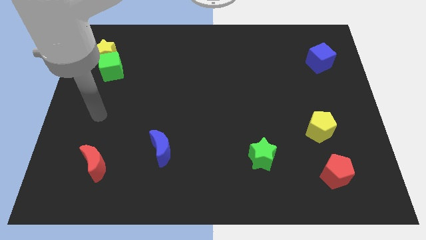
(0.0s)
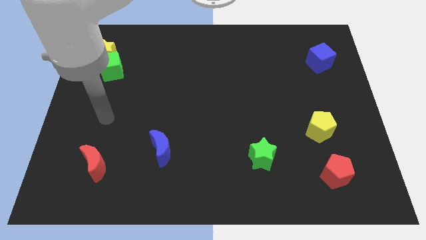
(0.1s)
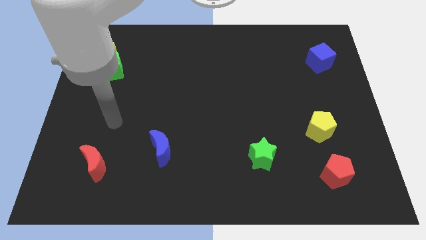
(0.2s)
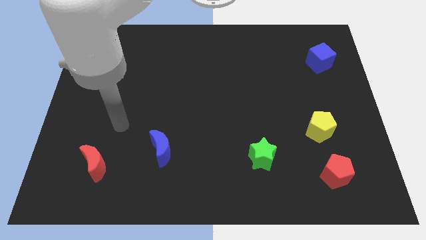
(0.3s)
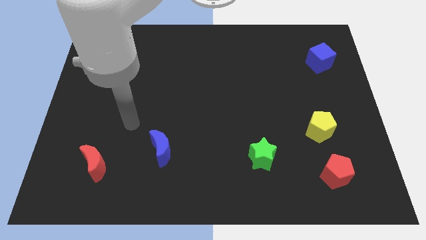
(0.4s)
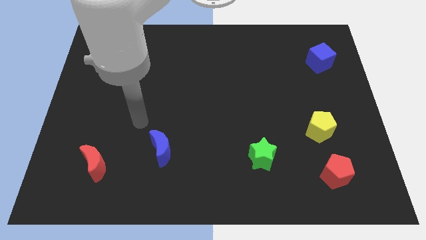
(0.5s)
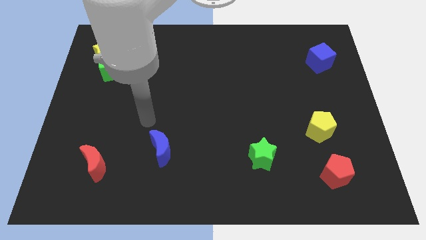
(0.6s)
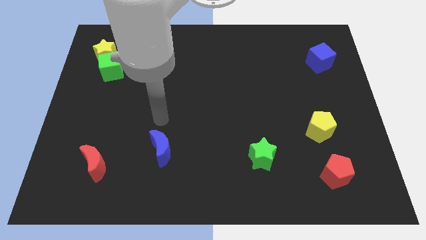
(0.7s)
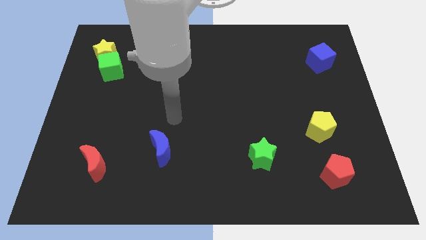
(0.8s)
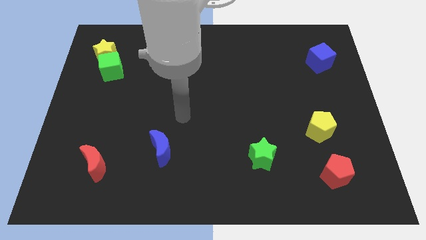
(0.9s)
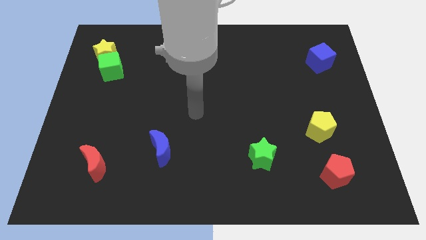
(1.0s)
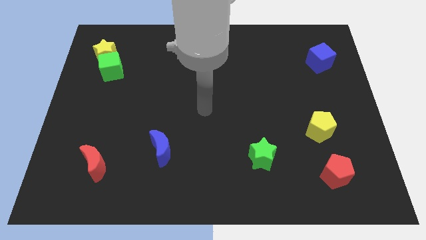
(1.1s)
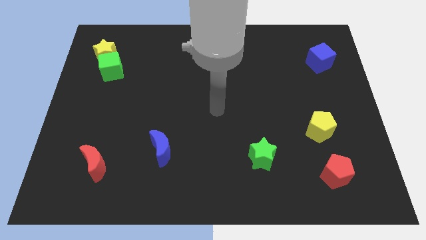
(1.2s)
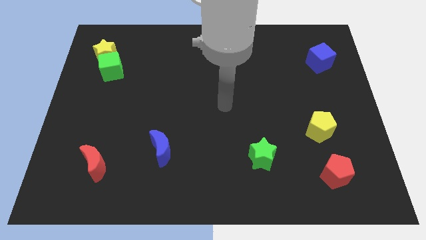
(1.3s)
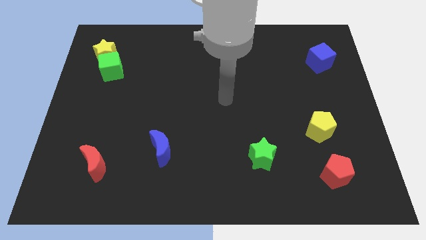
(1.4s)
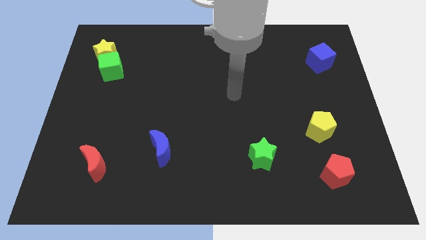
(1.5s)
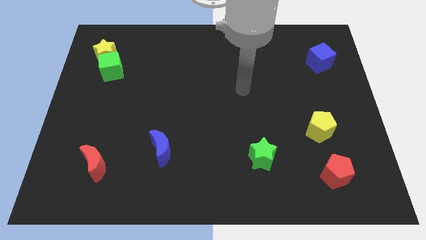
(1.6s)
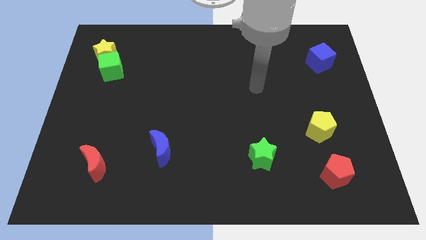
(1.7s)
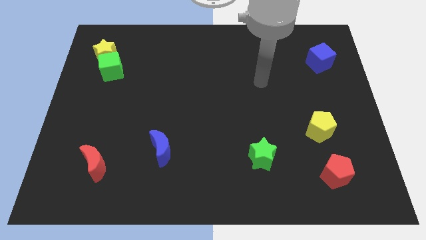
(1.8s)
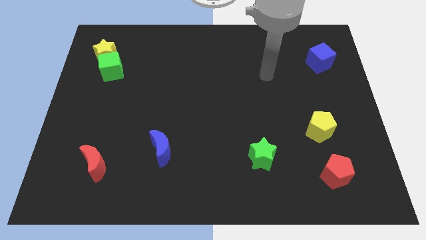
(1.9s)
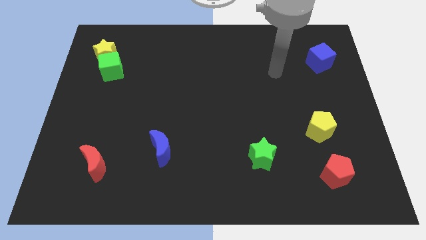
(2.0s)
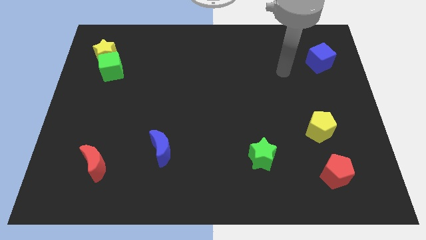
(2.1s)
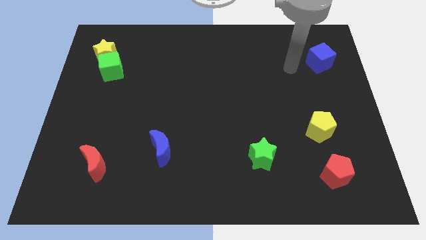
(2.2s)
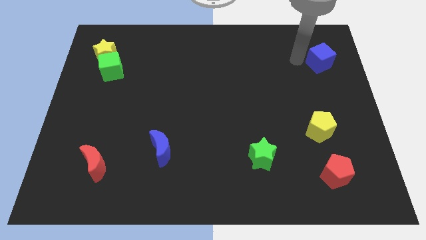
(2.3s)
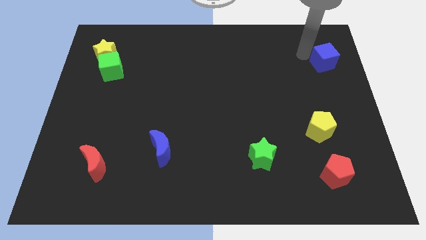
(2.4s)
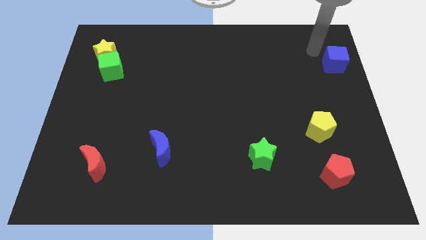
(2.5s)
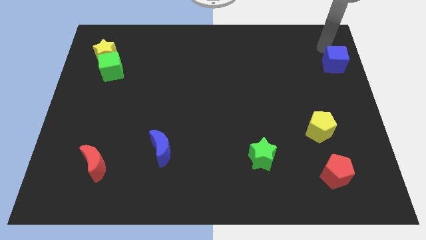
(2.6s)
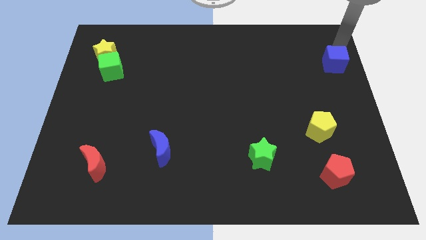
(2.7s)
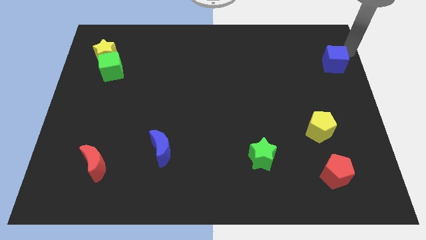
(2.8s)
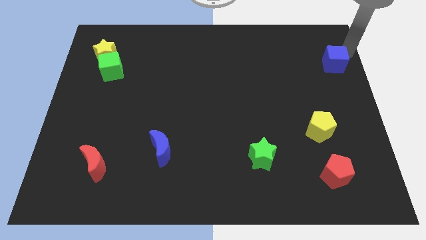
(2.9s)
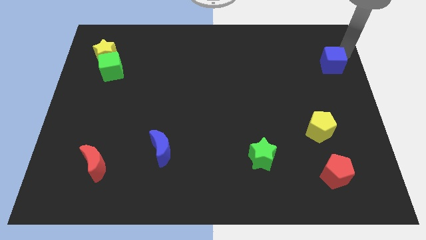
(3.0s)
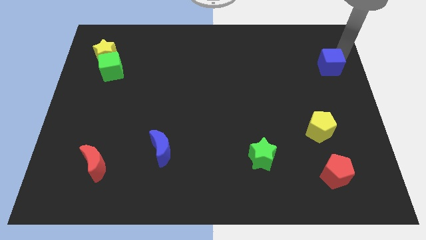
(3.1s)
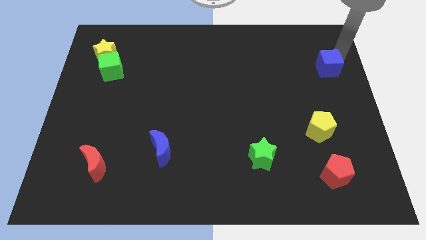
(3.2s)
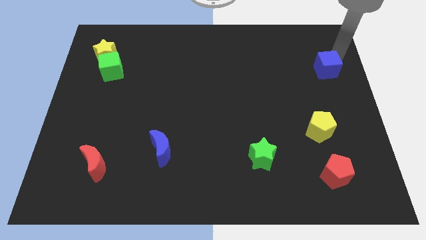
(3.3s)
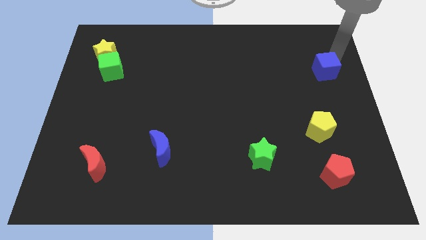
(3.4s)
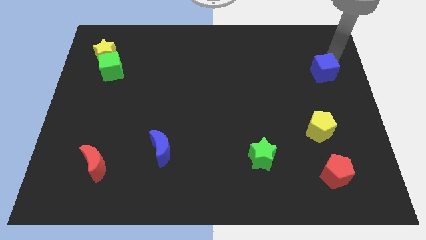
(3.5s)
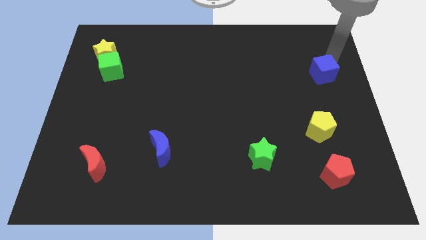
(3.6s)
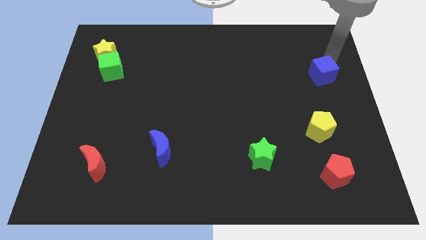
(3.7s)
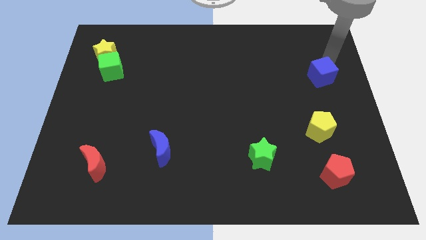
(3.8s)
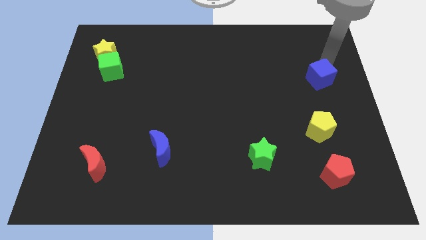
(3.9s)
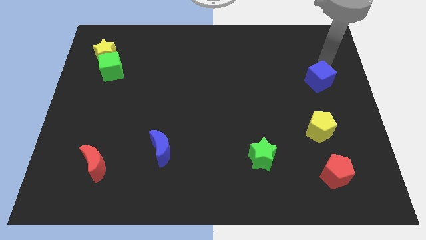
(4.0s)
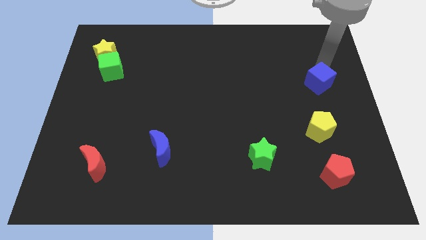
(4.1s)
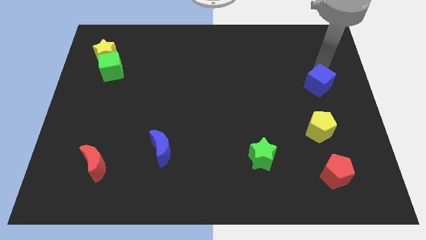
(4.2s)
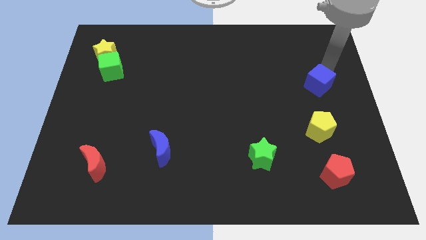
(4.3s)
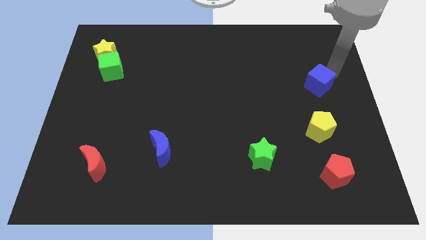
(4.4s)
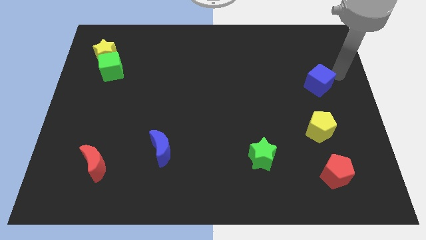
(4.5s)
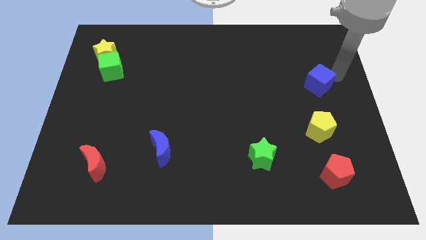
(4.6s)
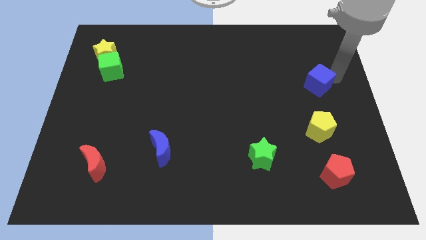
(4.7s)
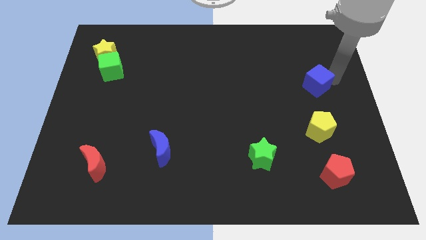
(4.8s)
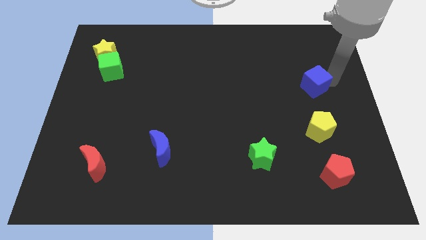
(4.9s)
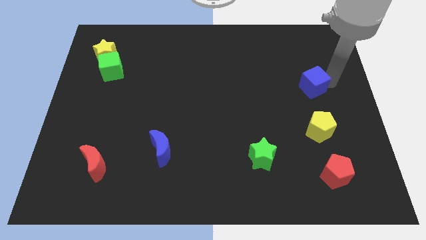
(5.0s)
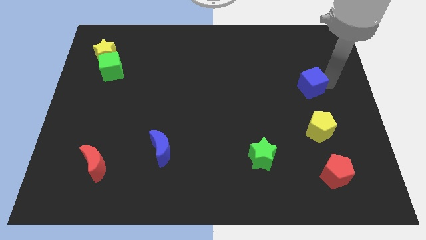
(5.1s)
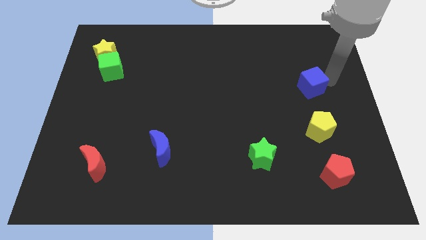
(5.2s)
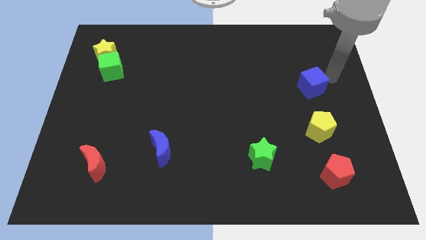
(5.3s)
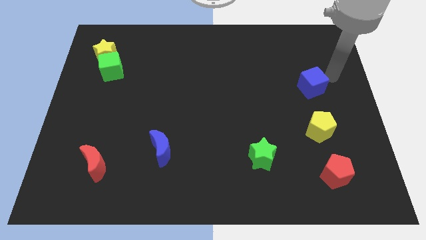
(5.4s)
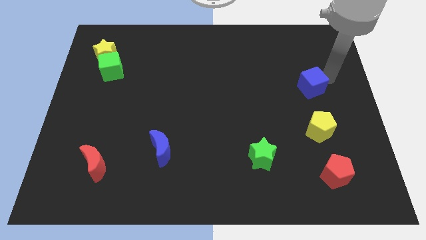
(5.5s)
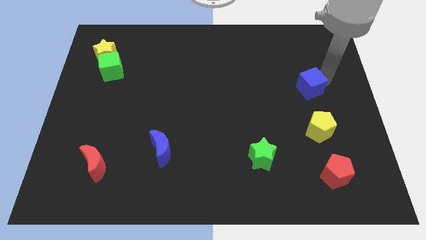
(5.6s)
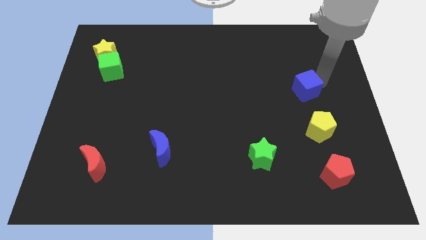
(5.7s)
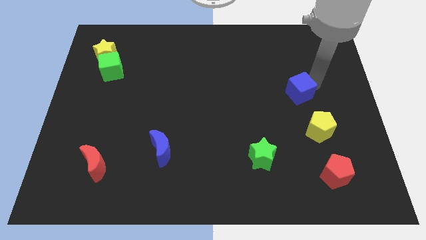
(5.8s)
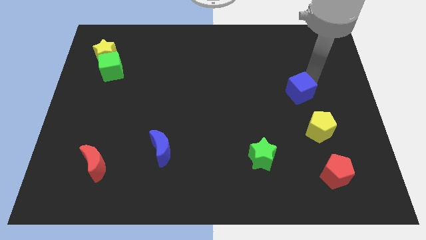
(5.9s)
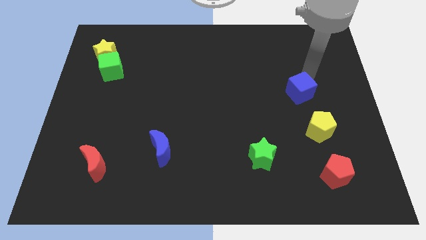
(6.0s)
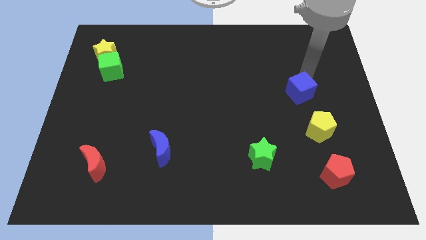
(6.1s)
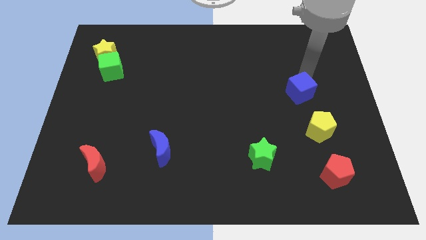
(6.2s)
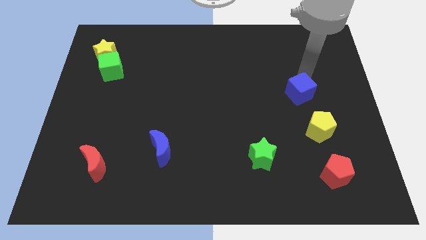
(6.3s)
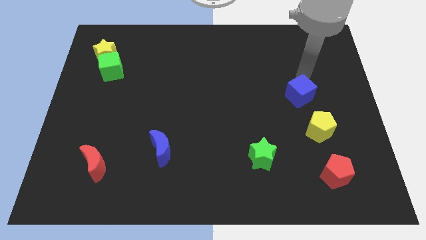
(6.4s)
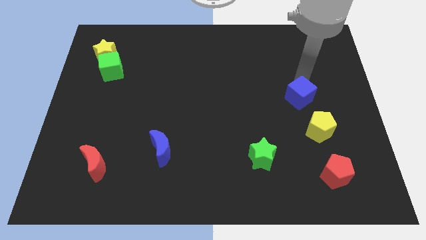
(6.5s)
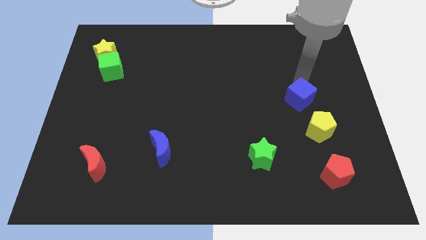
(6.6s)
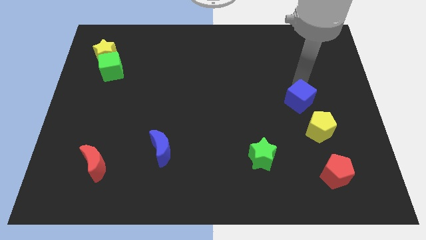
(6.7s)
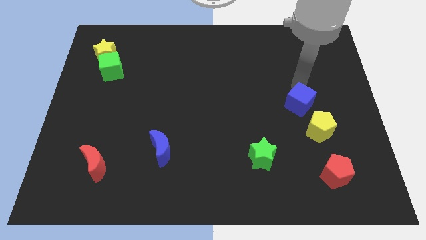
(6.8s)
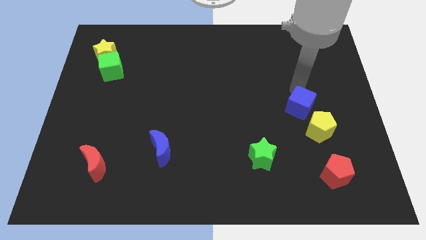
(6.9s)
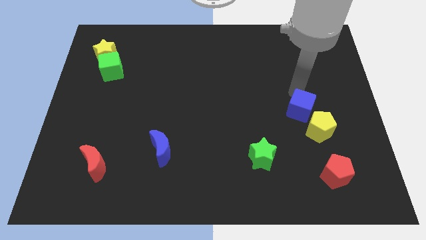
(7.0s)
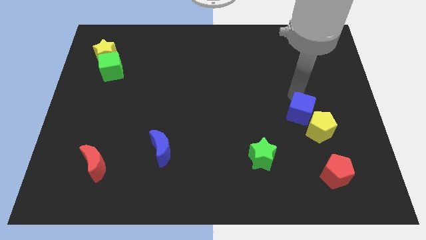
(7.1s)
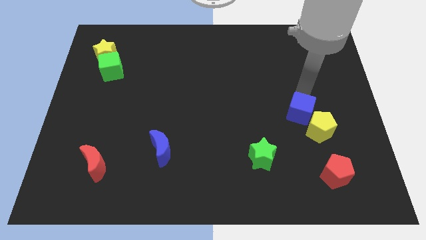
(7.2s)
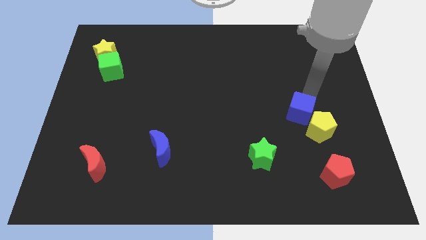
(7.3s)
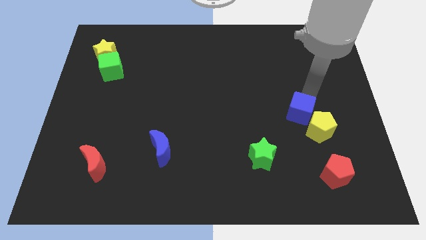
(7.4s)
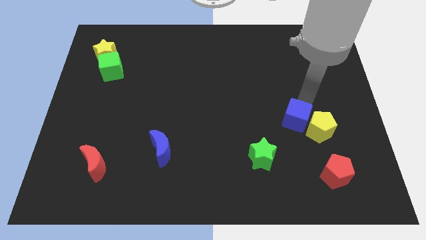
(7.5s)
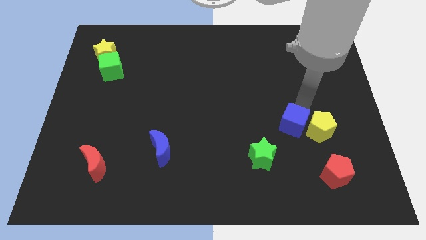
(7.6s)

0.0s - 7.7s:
slide the blue cube diagonally up and to the right of the green star
